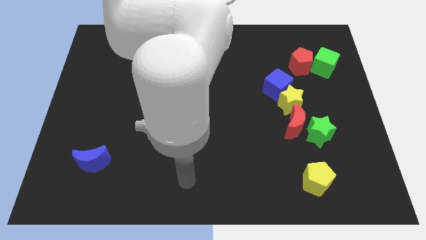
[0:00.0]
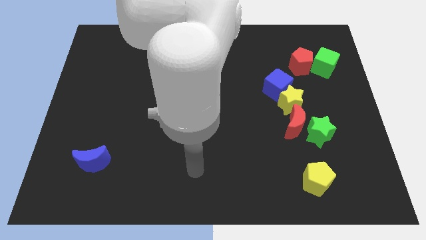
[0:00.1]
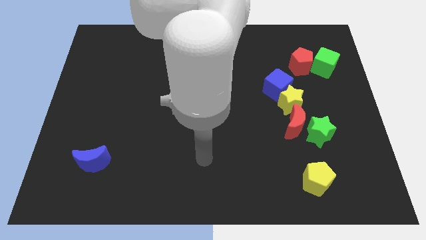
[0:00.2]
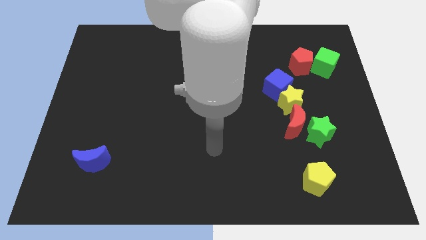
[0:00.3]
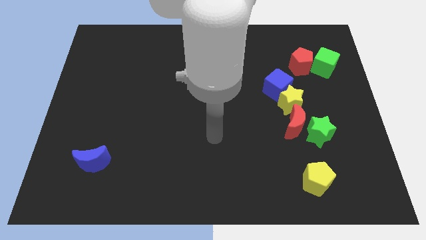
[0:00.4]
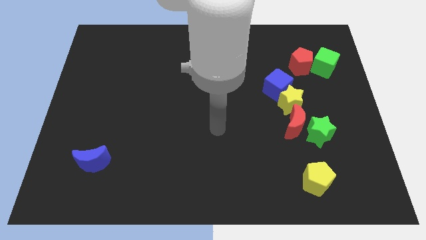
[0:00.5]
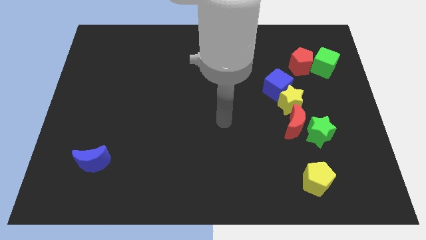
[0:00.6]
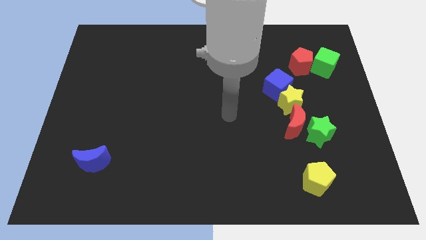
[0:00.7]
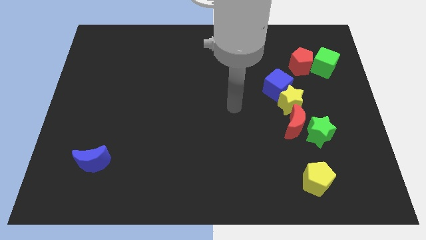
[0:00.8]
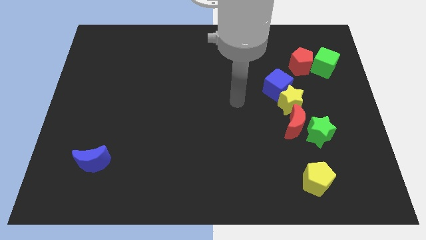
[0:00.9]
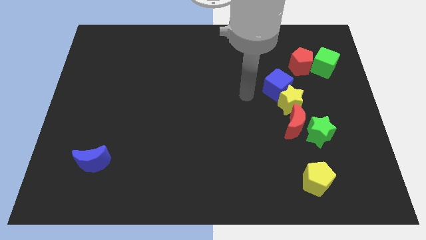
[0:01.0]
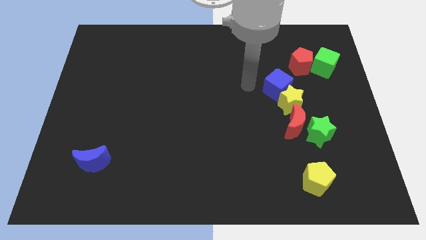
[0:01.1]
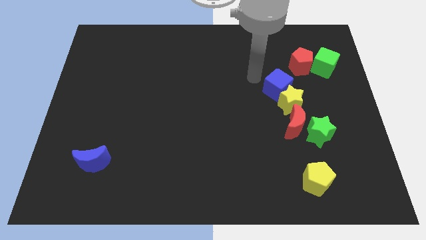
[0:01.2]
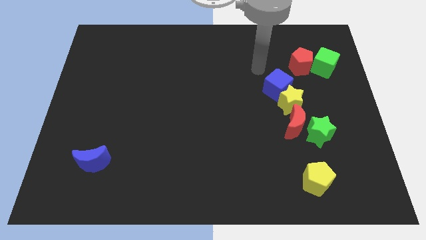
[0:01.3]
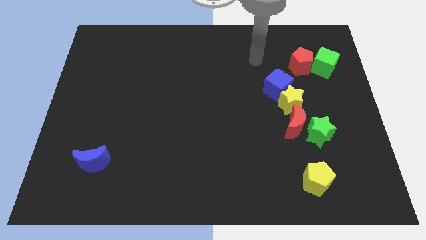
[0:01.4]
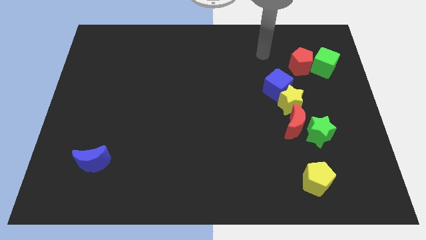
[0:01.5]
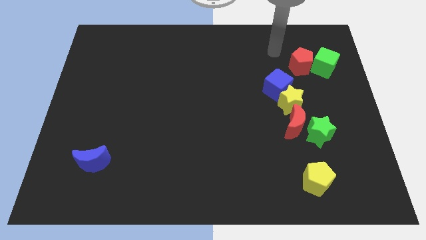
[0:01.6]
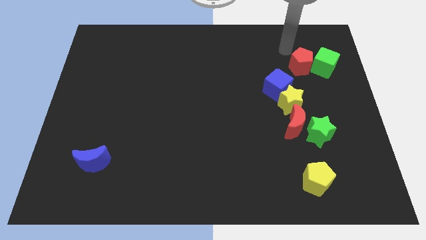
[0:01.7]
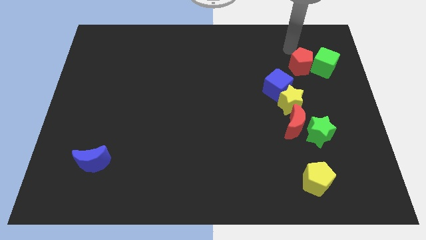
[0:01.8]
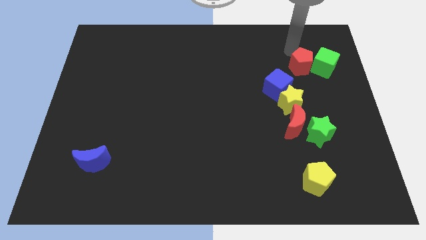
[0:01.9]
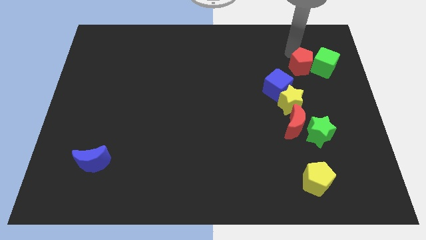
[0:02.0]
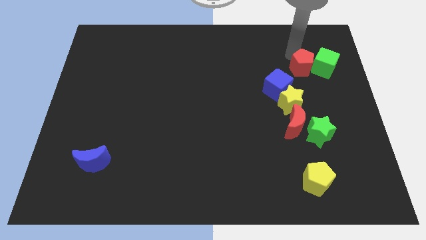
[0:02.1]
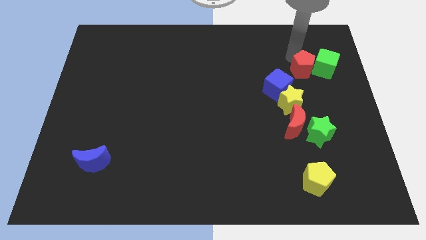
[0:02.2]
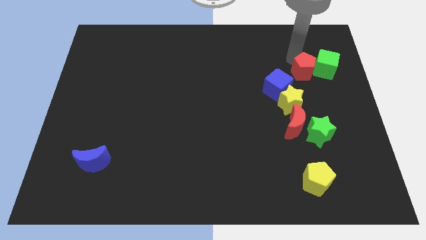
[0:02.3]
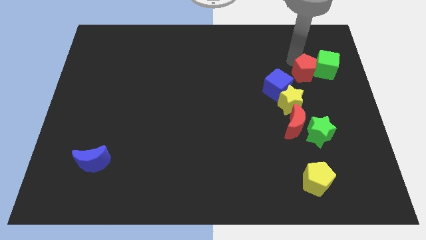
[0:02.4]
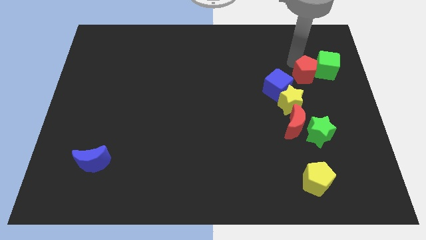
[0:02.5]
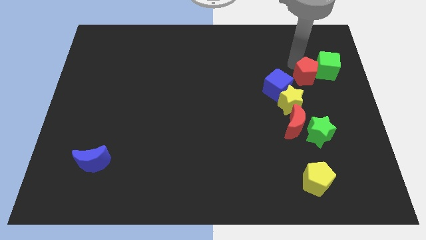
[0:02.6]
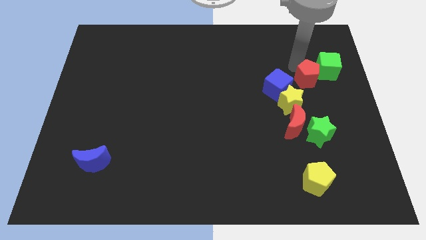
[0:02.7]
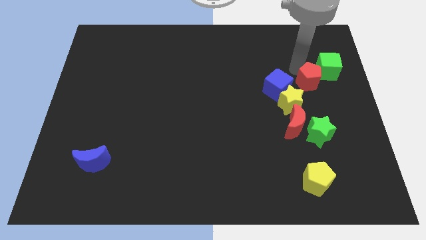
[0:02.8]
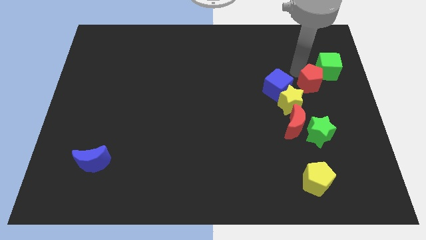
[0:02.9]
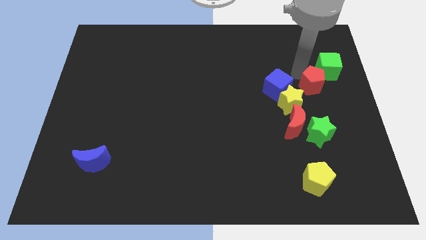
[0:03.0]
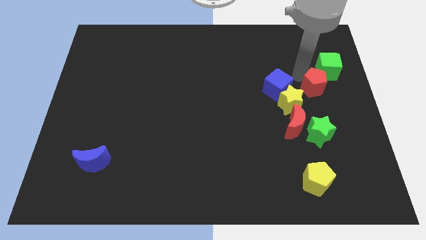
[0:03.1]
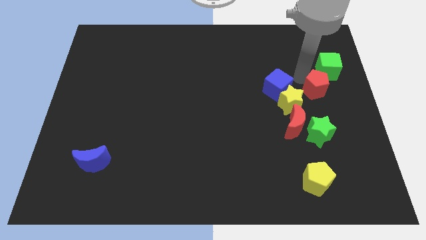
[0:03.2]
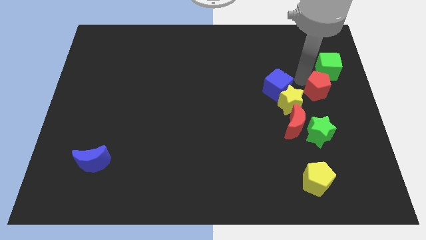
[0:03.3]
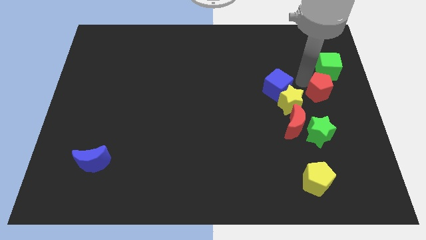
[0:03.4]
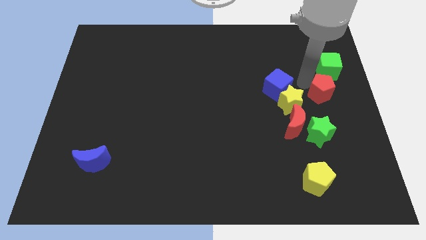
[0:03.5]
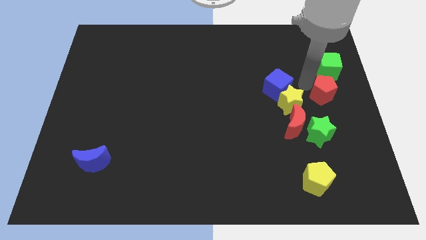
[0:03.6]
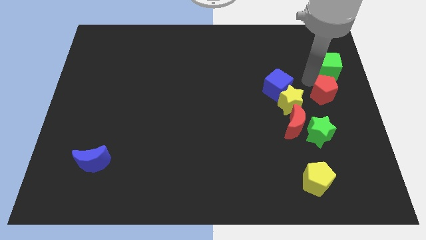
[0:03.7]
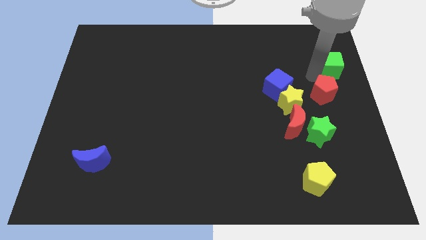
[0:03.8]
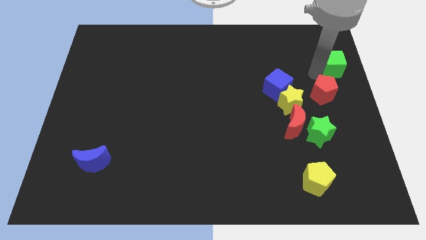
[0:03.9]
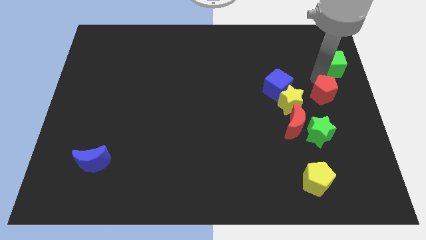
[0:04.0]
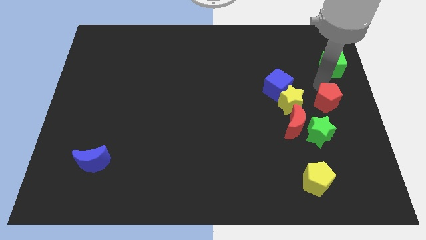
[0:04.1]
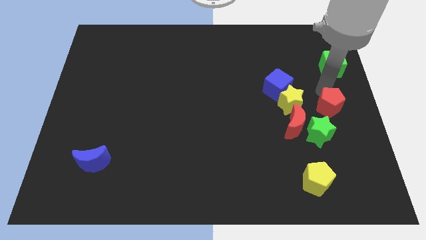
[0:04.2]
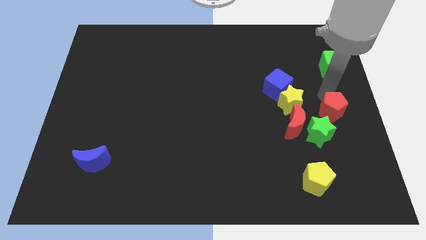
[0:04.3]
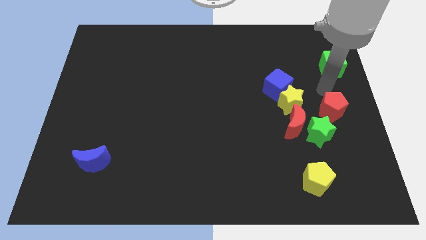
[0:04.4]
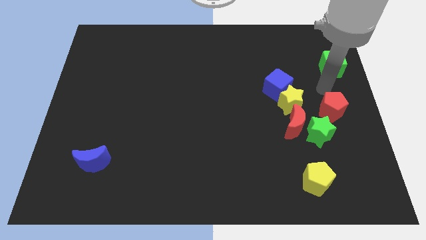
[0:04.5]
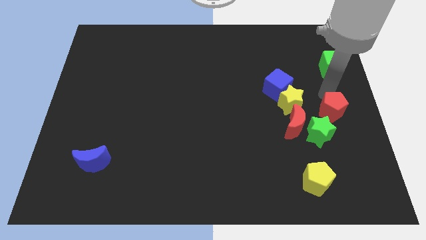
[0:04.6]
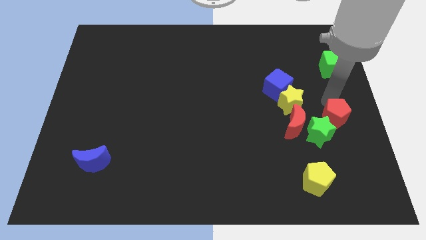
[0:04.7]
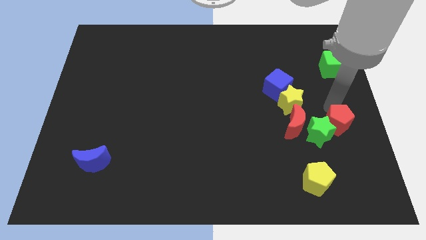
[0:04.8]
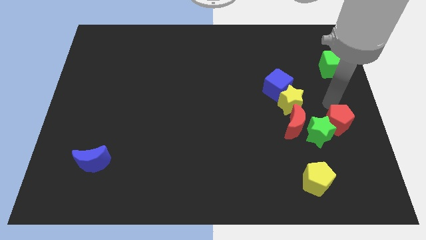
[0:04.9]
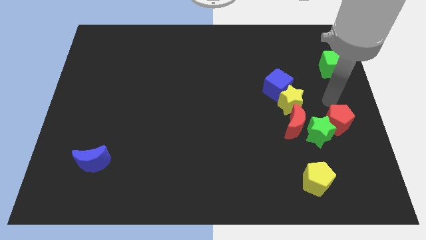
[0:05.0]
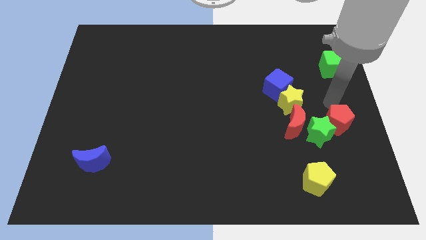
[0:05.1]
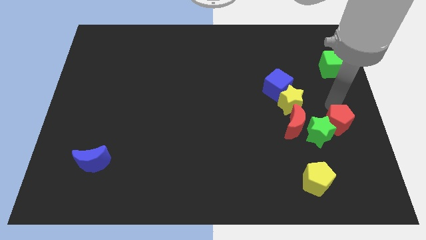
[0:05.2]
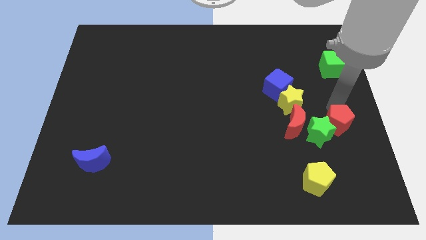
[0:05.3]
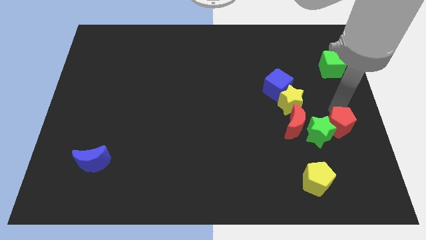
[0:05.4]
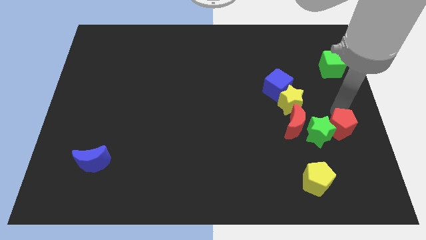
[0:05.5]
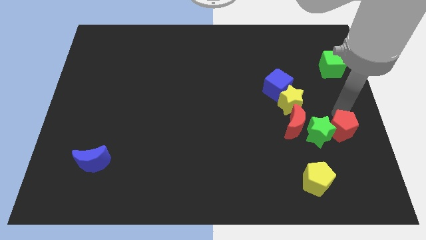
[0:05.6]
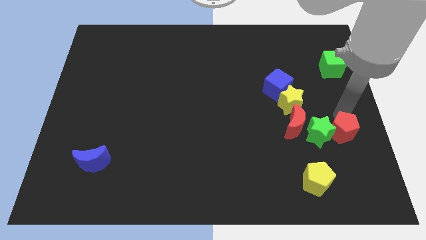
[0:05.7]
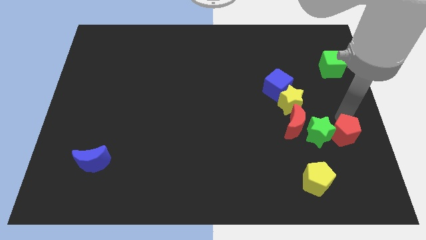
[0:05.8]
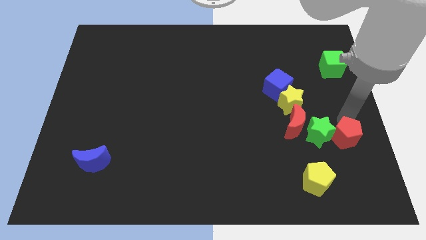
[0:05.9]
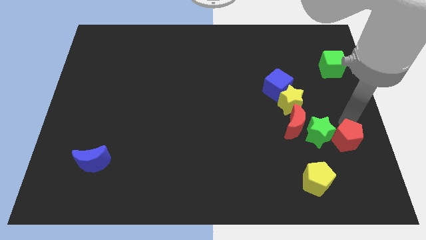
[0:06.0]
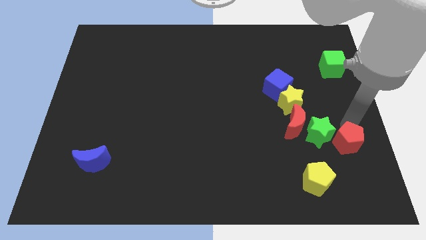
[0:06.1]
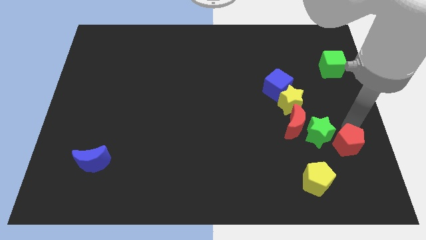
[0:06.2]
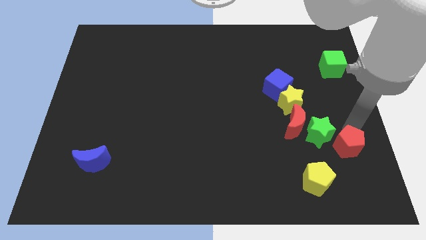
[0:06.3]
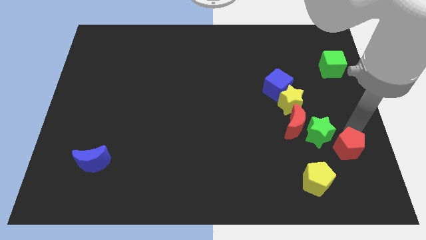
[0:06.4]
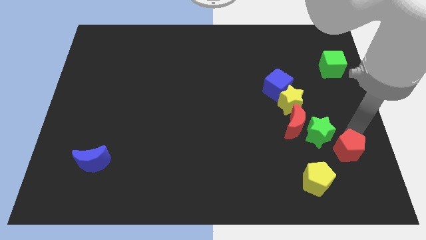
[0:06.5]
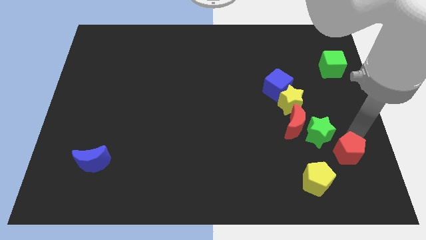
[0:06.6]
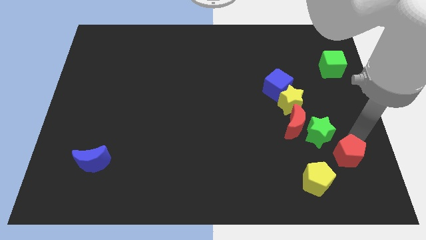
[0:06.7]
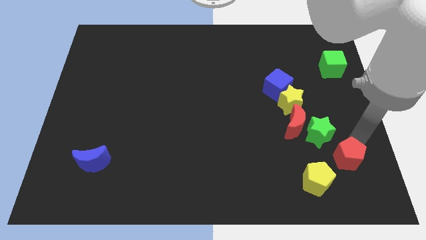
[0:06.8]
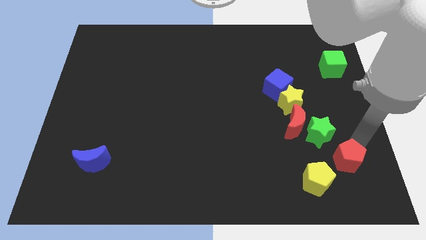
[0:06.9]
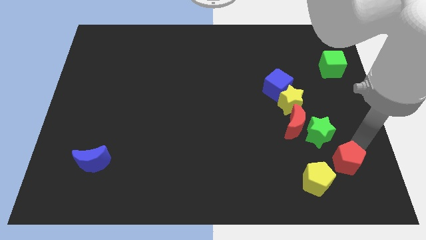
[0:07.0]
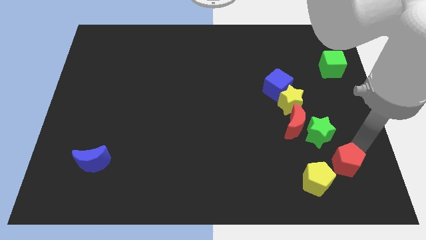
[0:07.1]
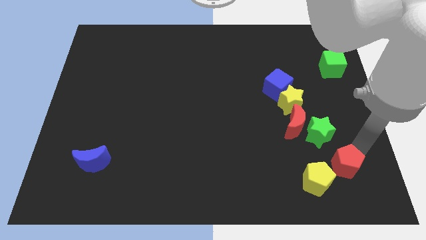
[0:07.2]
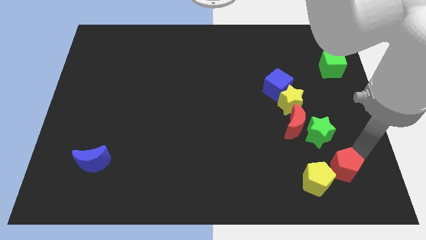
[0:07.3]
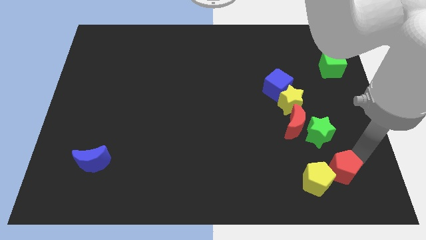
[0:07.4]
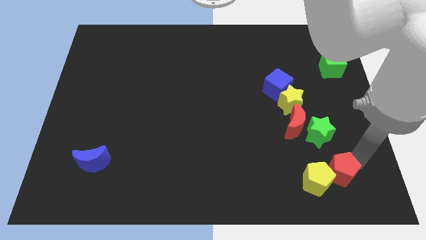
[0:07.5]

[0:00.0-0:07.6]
slide the red pentagon next to the yellow pentagon
